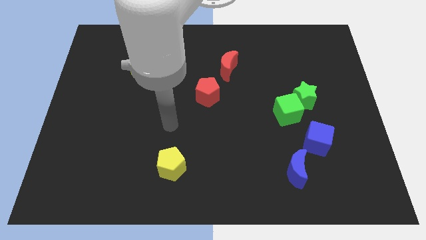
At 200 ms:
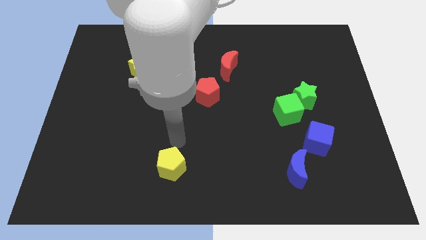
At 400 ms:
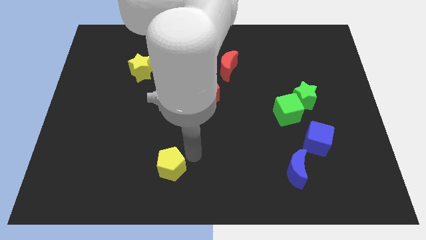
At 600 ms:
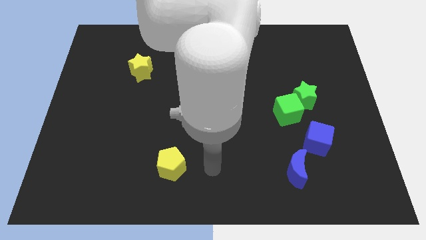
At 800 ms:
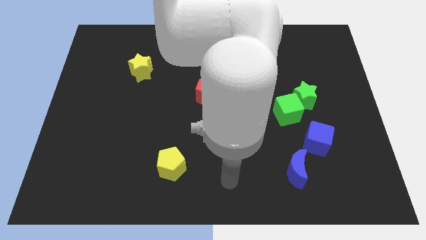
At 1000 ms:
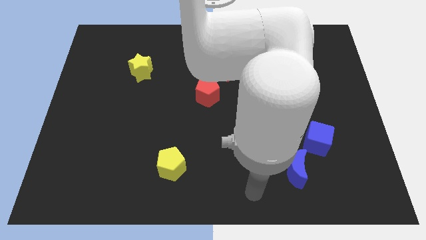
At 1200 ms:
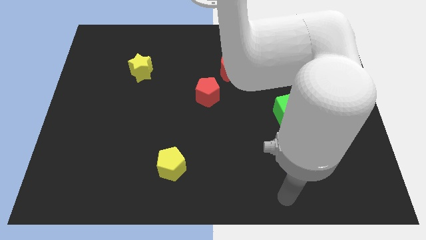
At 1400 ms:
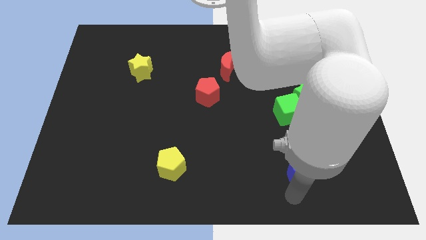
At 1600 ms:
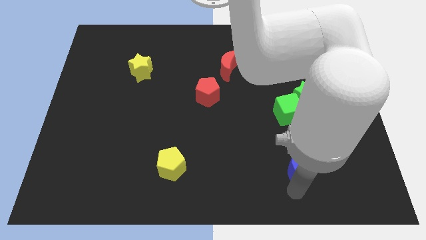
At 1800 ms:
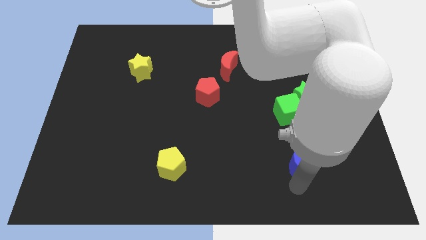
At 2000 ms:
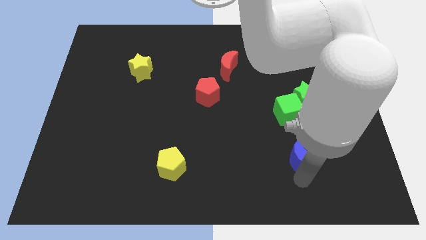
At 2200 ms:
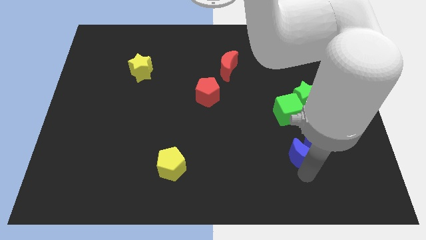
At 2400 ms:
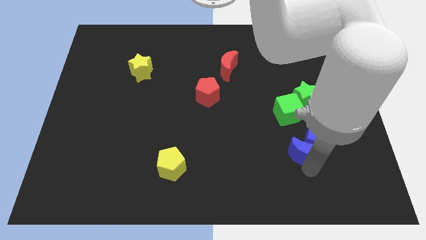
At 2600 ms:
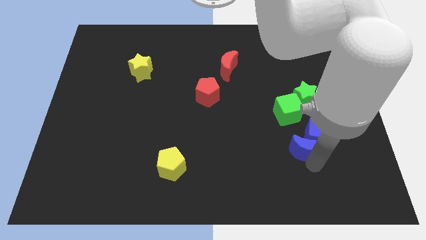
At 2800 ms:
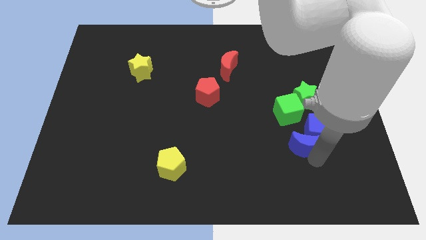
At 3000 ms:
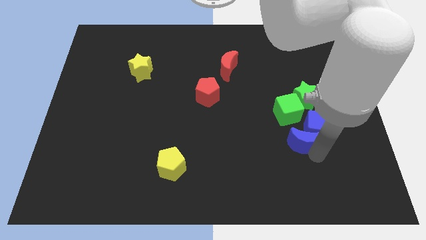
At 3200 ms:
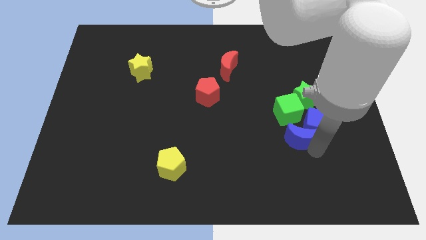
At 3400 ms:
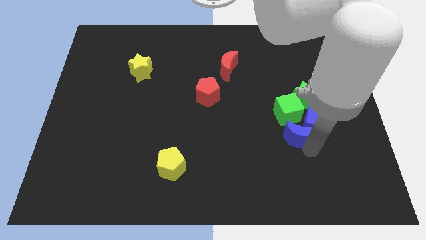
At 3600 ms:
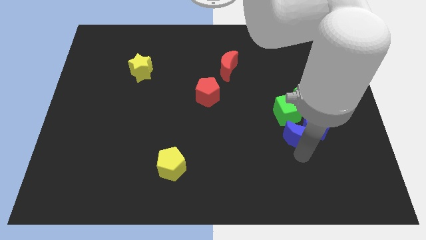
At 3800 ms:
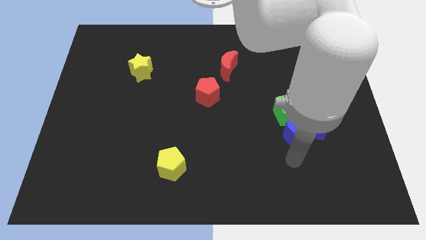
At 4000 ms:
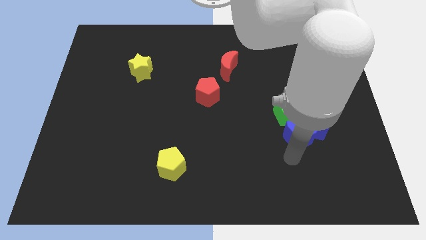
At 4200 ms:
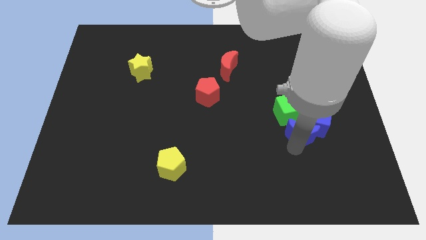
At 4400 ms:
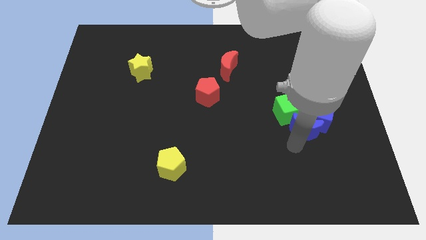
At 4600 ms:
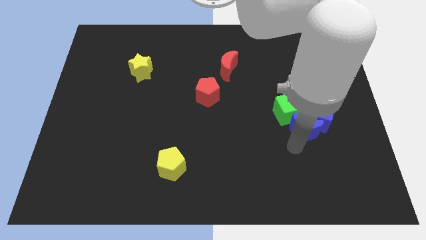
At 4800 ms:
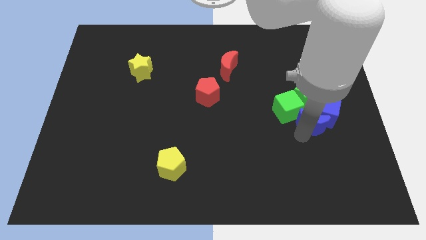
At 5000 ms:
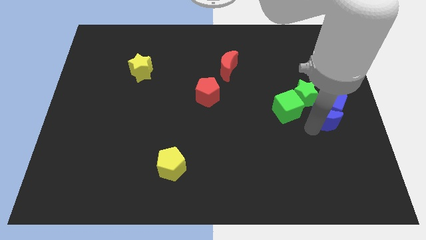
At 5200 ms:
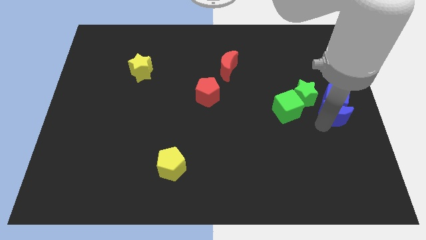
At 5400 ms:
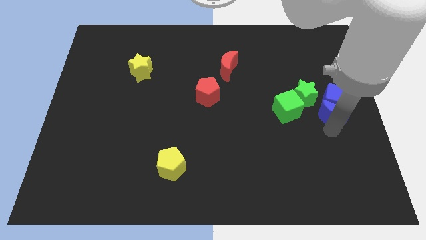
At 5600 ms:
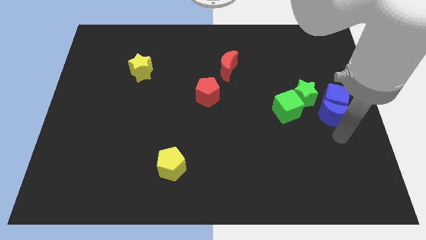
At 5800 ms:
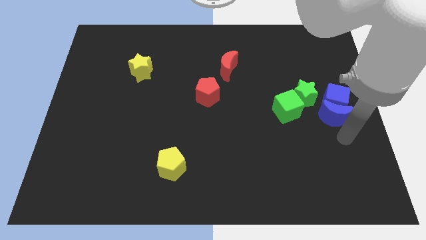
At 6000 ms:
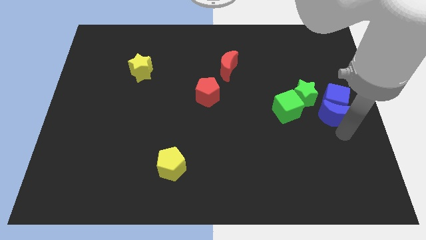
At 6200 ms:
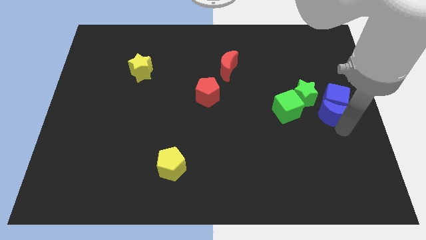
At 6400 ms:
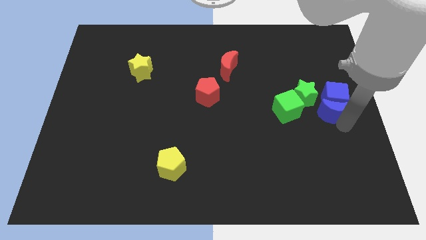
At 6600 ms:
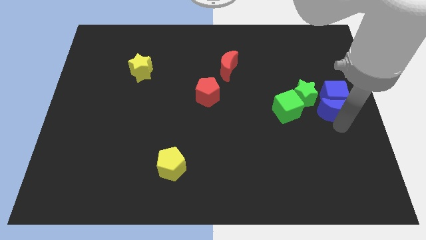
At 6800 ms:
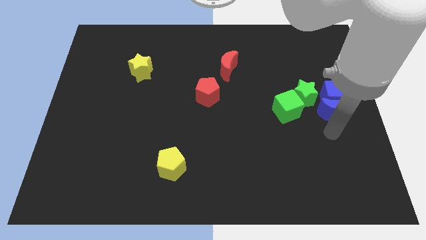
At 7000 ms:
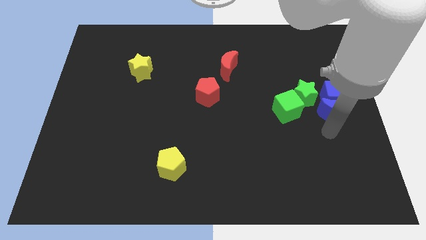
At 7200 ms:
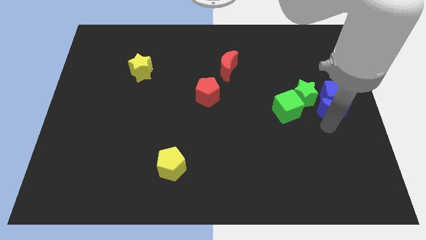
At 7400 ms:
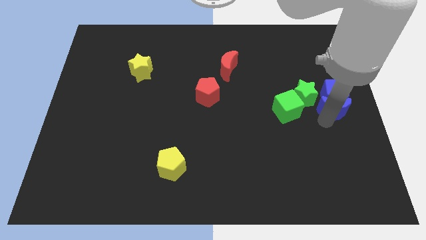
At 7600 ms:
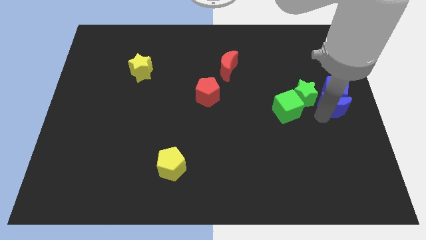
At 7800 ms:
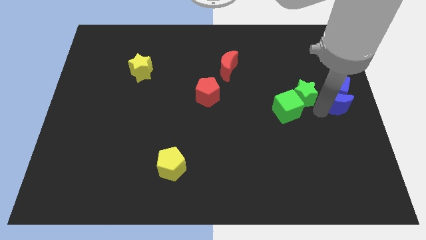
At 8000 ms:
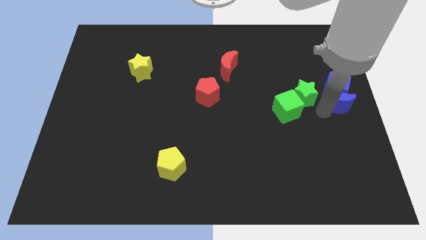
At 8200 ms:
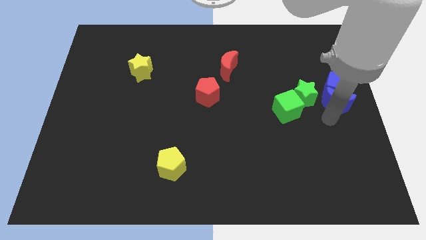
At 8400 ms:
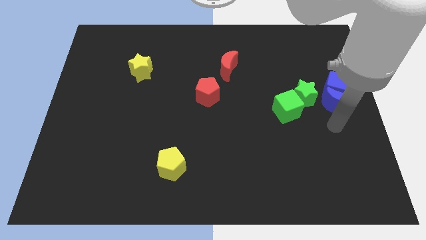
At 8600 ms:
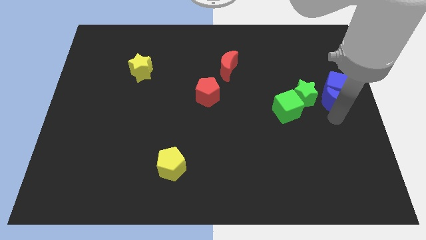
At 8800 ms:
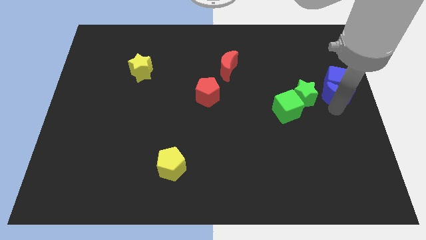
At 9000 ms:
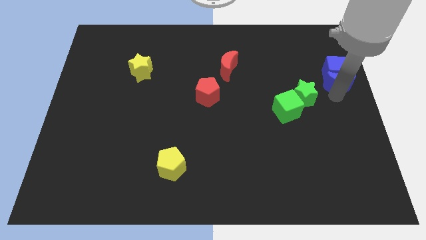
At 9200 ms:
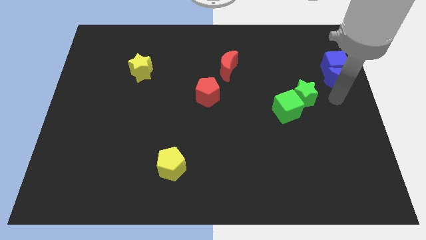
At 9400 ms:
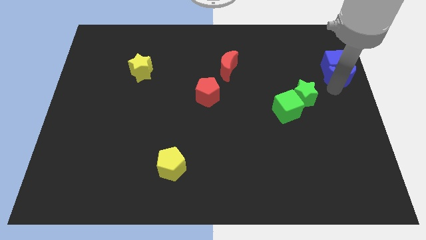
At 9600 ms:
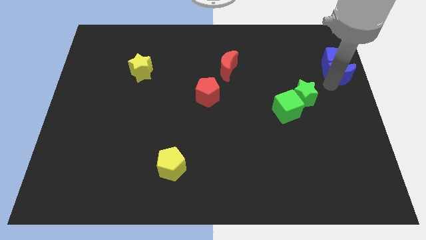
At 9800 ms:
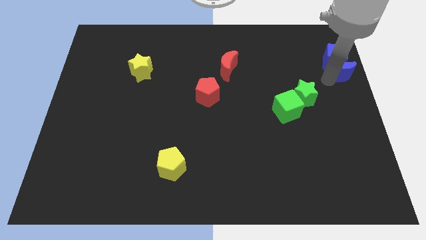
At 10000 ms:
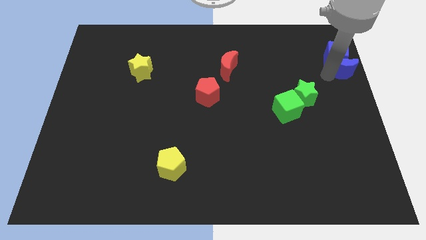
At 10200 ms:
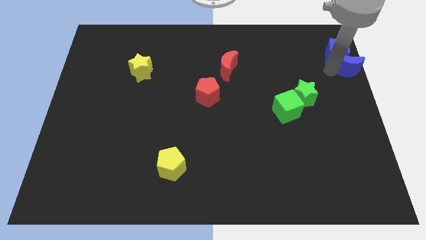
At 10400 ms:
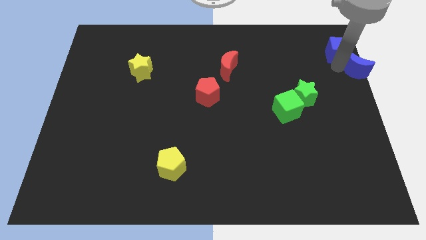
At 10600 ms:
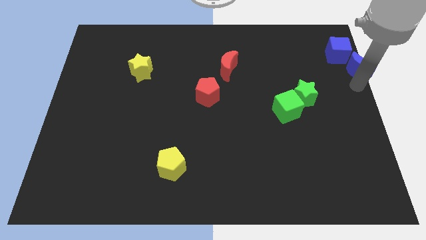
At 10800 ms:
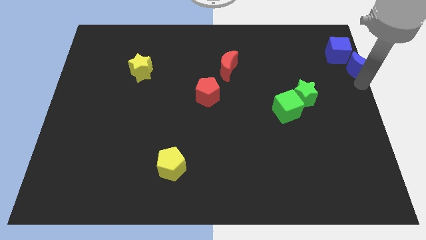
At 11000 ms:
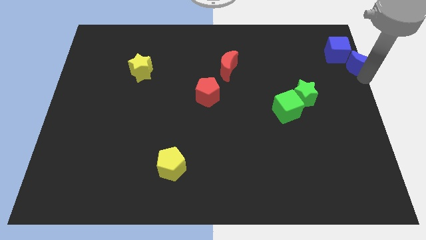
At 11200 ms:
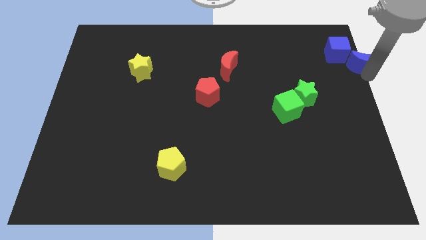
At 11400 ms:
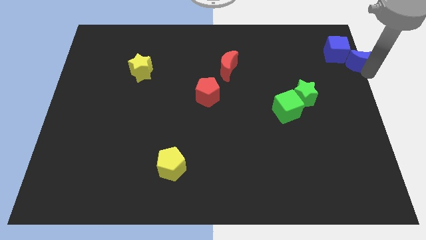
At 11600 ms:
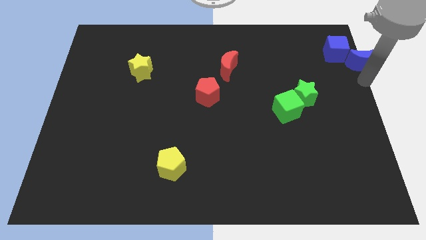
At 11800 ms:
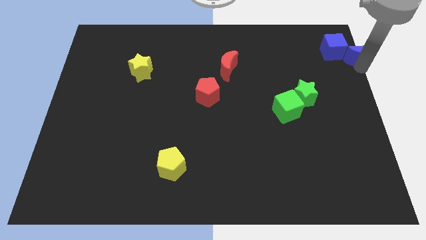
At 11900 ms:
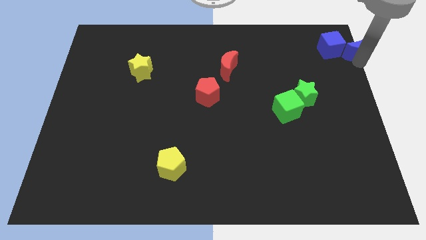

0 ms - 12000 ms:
push the blue moon to the top right corner

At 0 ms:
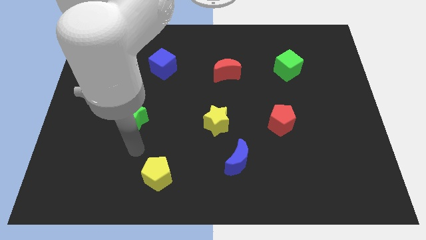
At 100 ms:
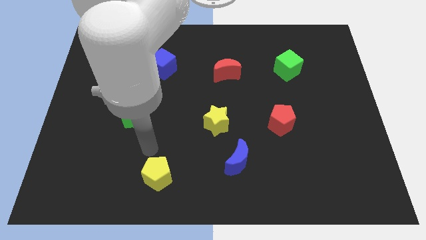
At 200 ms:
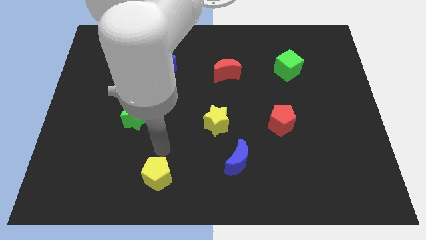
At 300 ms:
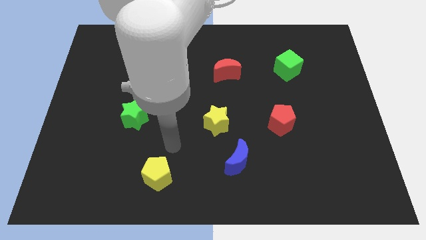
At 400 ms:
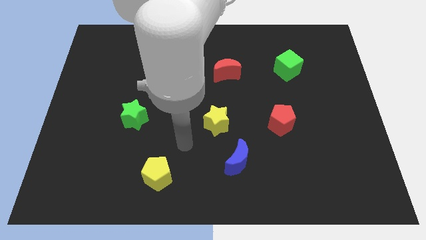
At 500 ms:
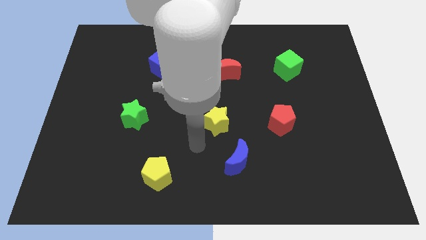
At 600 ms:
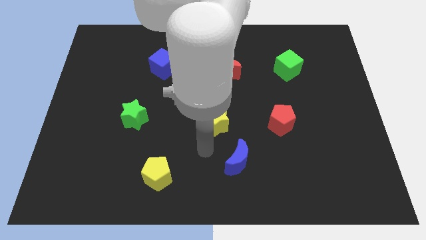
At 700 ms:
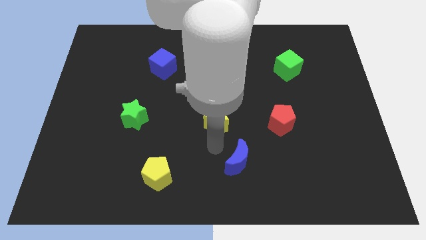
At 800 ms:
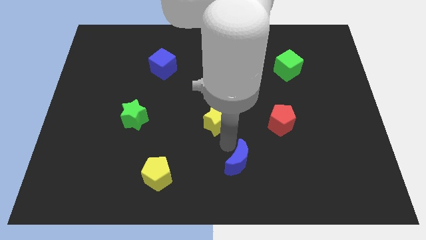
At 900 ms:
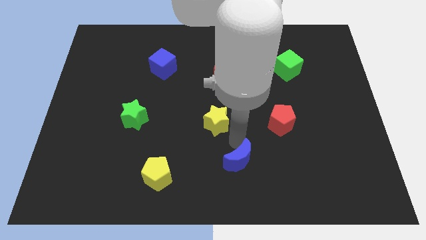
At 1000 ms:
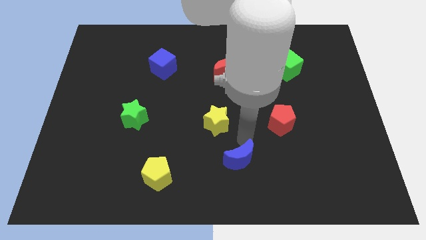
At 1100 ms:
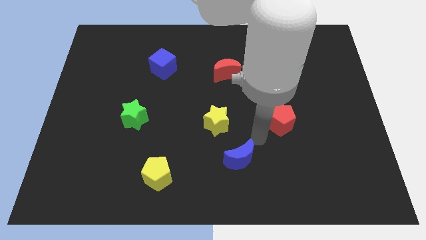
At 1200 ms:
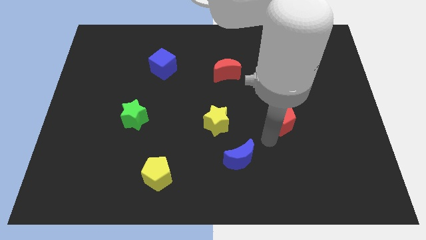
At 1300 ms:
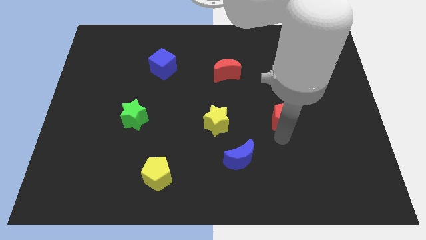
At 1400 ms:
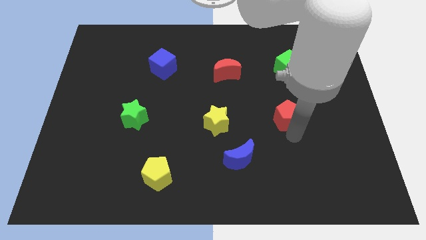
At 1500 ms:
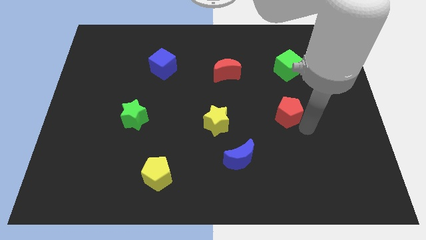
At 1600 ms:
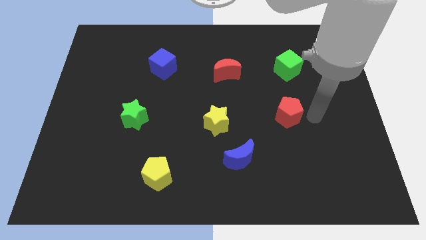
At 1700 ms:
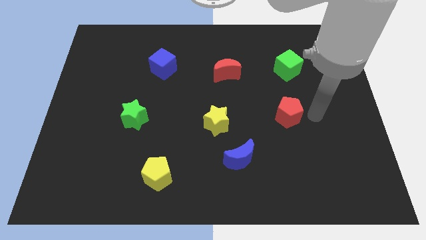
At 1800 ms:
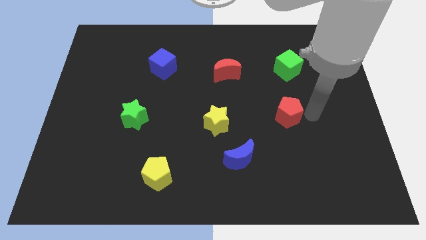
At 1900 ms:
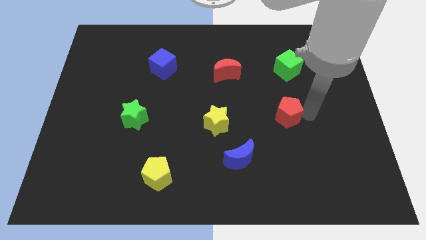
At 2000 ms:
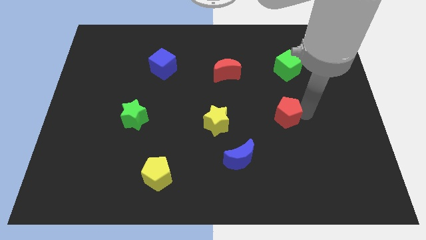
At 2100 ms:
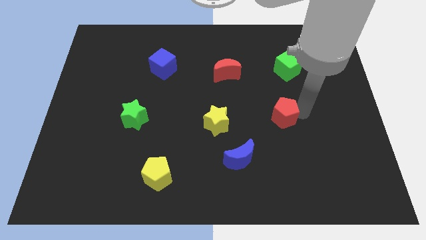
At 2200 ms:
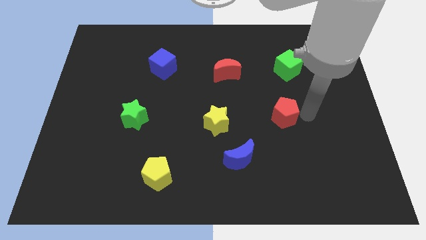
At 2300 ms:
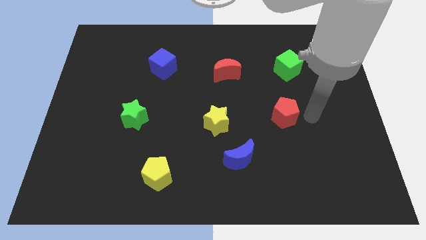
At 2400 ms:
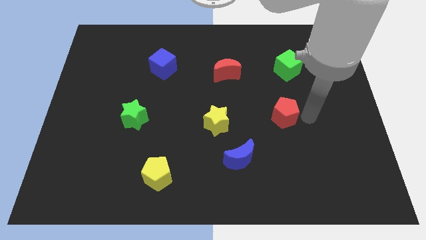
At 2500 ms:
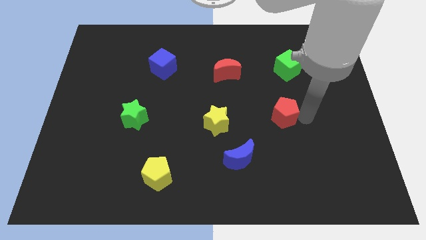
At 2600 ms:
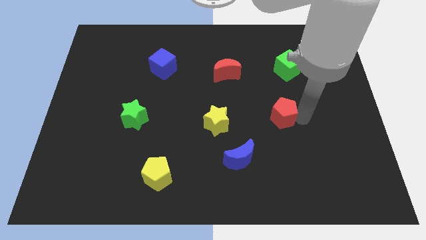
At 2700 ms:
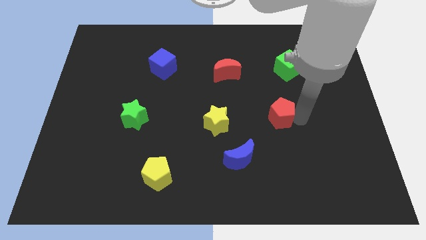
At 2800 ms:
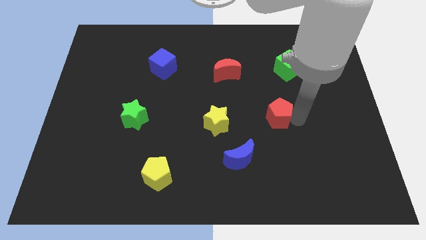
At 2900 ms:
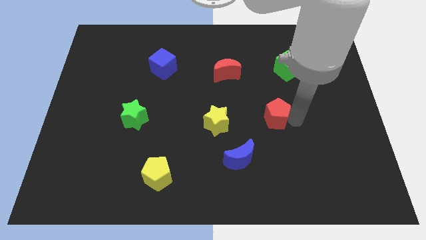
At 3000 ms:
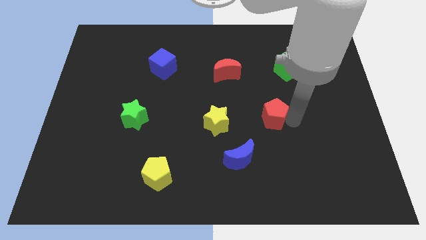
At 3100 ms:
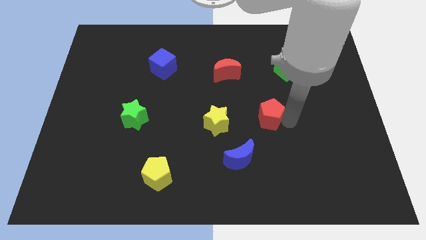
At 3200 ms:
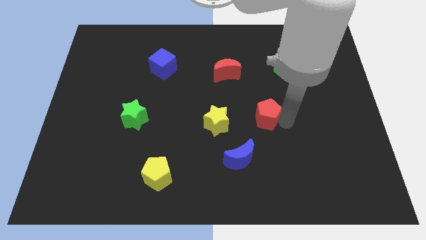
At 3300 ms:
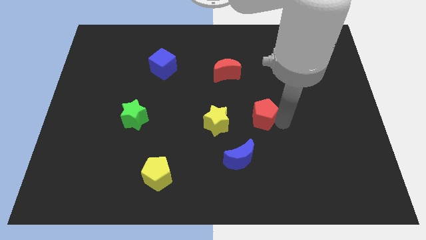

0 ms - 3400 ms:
put the red pentagon to the center of the board
